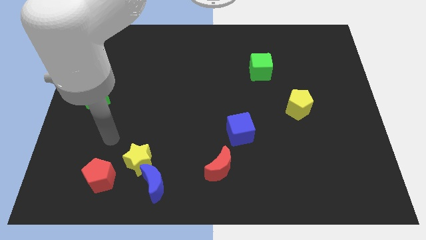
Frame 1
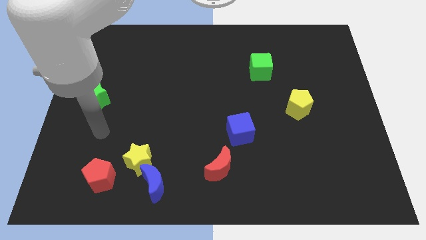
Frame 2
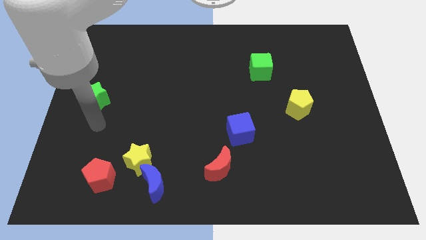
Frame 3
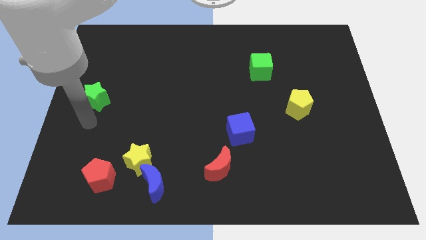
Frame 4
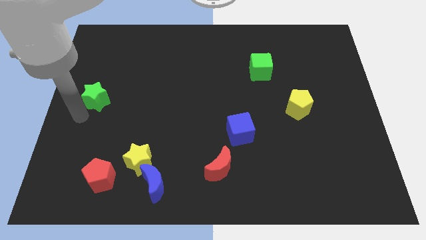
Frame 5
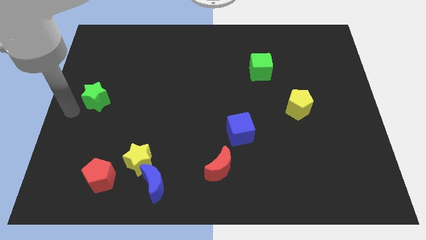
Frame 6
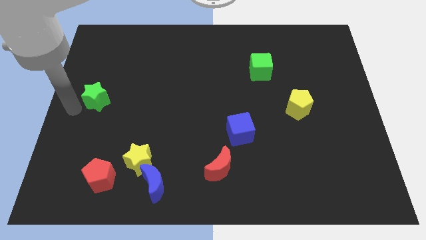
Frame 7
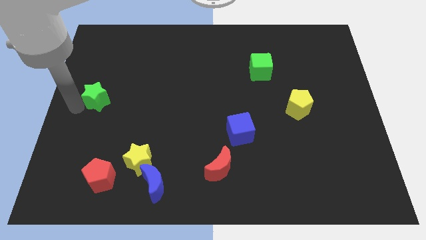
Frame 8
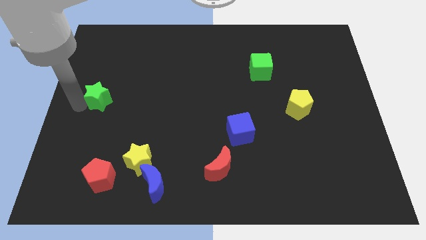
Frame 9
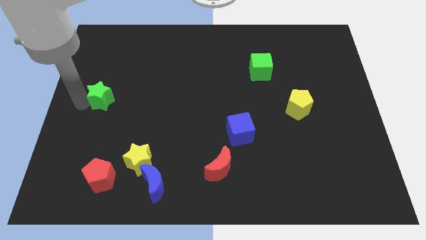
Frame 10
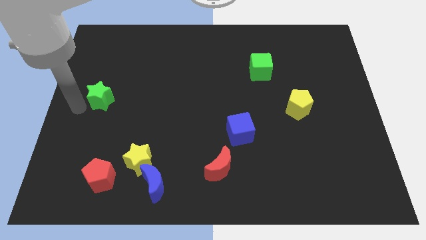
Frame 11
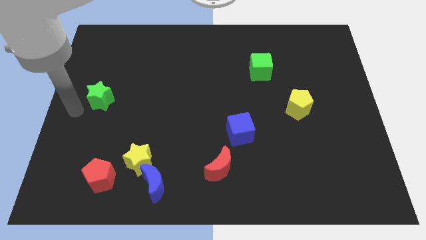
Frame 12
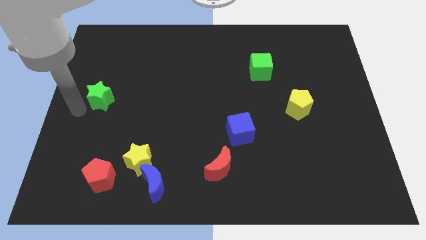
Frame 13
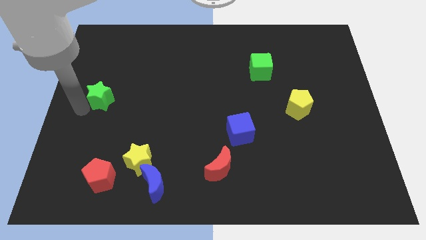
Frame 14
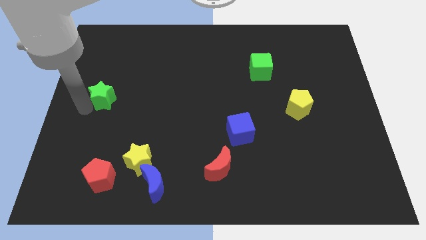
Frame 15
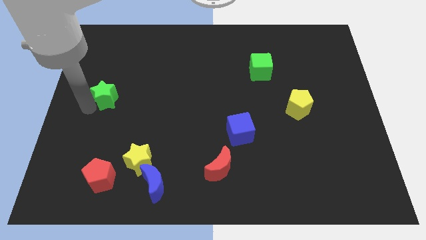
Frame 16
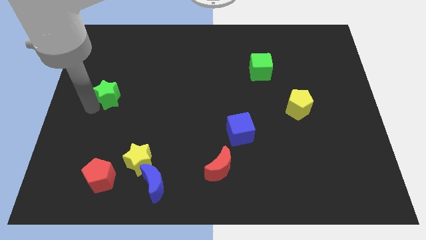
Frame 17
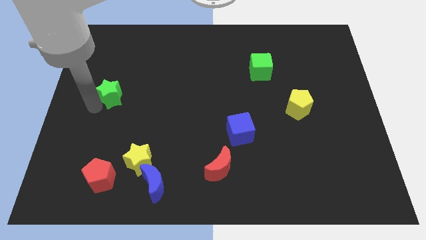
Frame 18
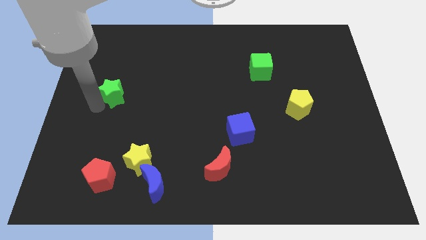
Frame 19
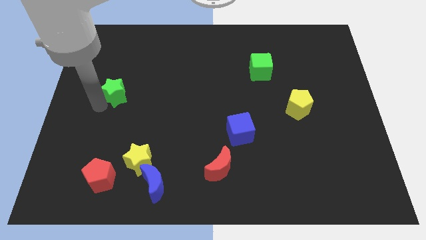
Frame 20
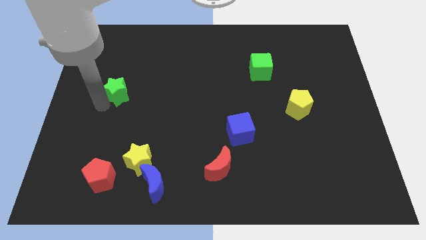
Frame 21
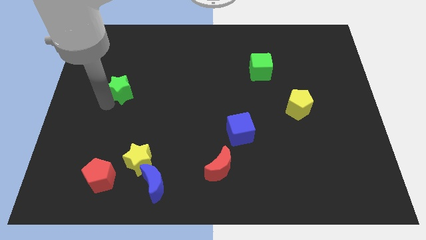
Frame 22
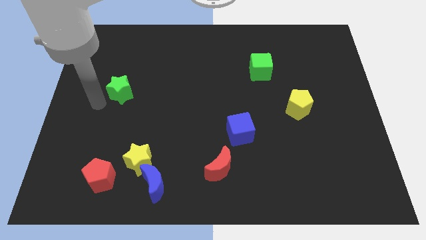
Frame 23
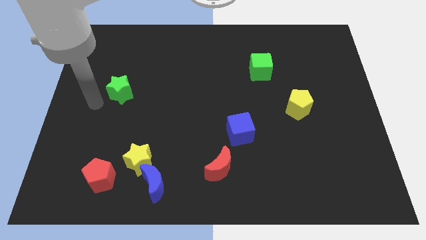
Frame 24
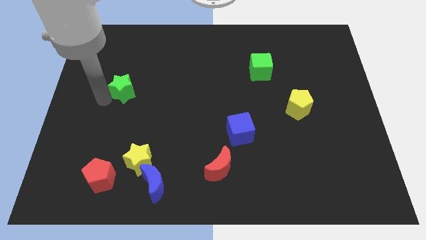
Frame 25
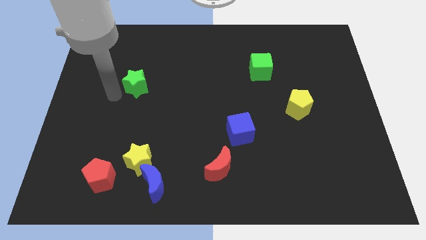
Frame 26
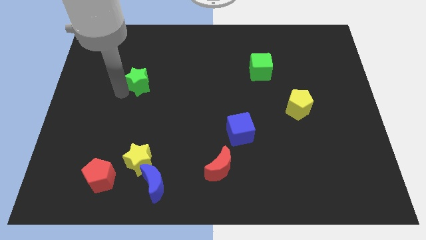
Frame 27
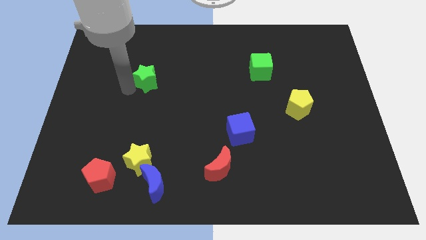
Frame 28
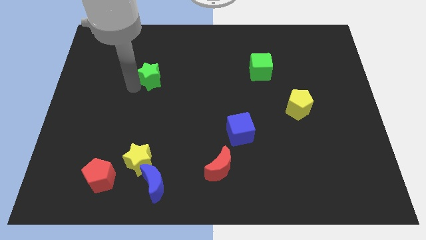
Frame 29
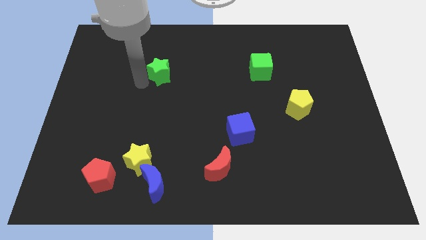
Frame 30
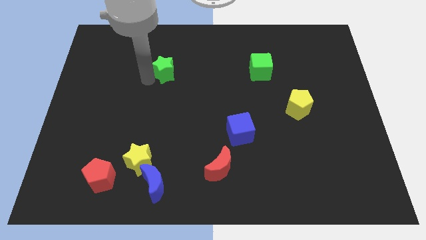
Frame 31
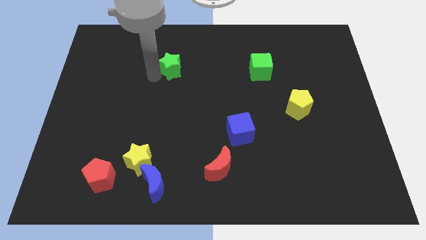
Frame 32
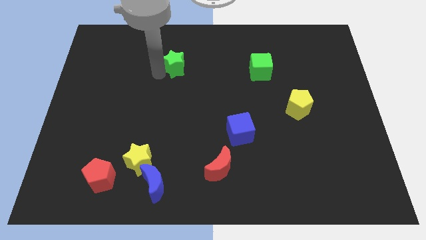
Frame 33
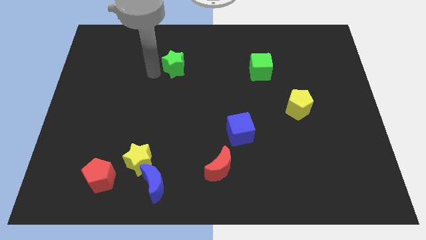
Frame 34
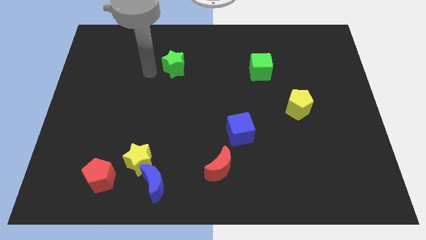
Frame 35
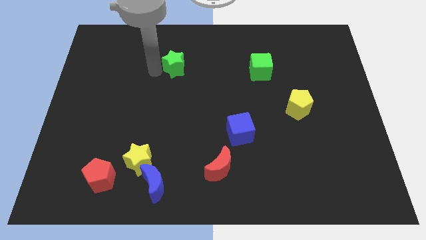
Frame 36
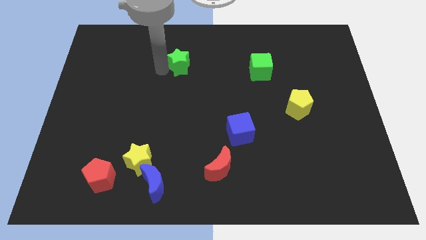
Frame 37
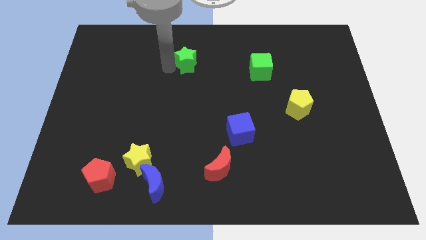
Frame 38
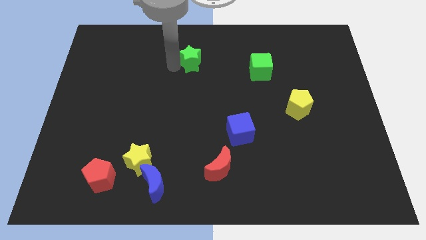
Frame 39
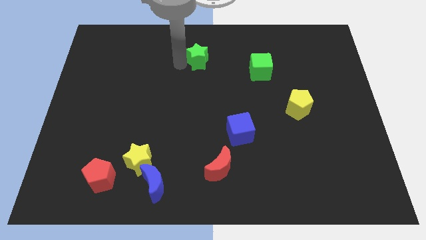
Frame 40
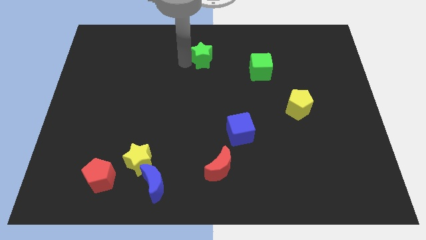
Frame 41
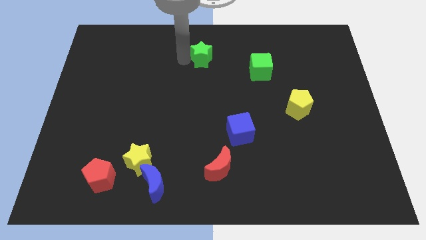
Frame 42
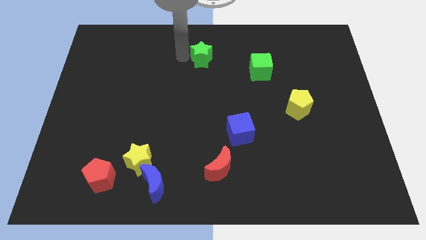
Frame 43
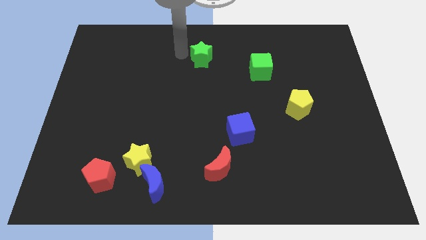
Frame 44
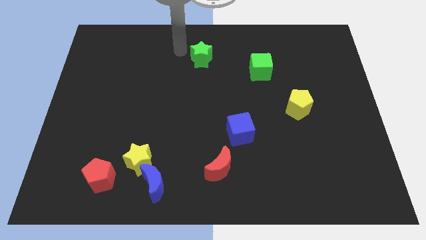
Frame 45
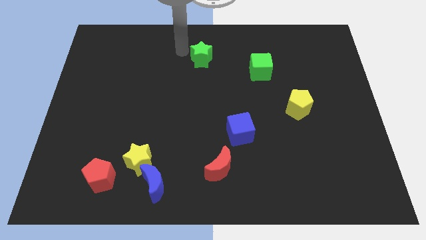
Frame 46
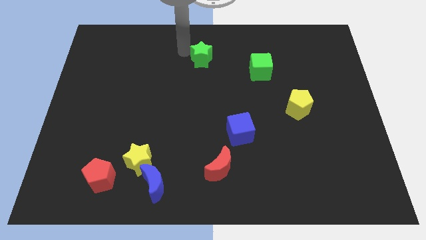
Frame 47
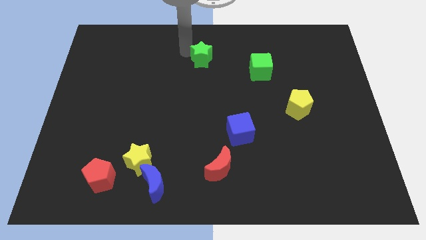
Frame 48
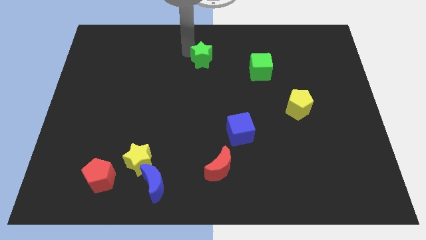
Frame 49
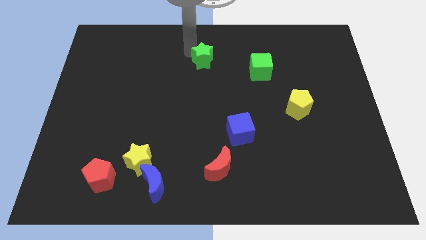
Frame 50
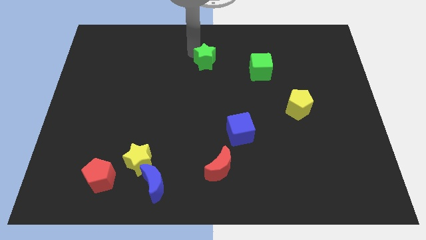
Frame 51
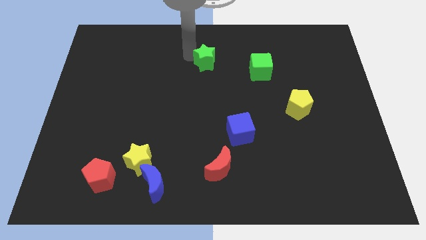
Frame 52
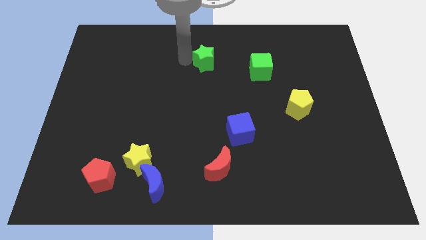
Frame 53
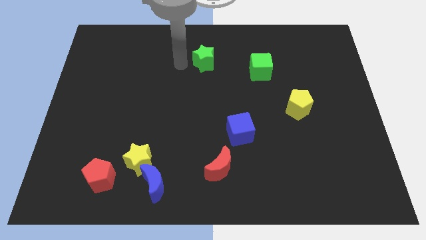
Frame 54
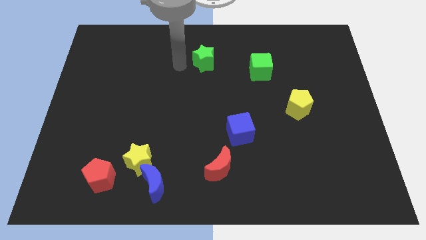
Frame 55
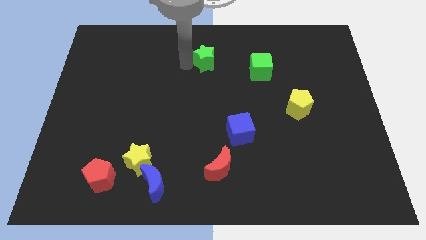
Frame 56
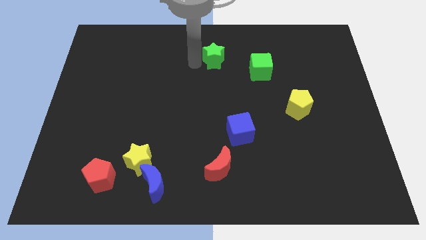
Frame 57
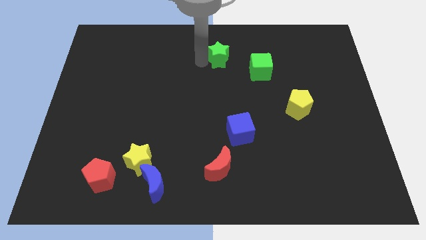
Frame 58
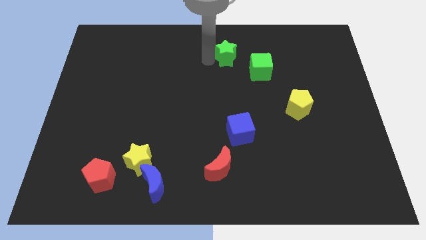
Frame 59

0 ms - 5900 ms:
put the green star diagonally up and to the left of the green cube

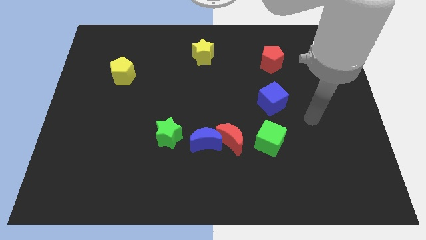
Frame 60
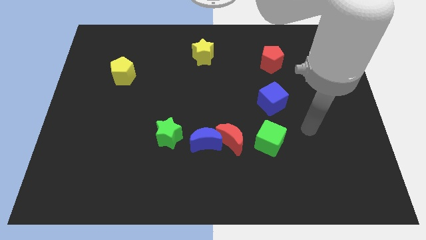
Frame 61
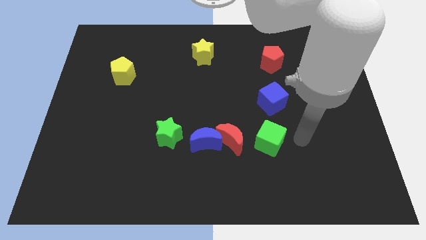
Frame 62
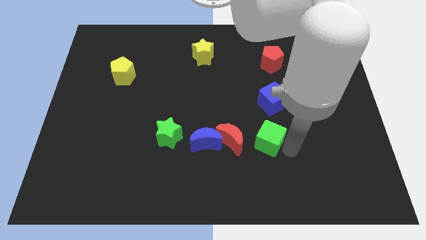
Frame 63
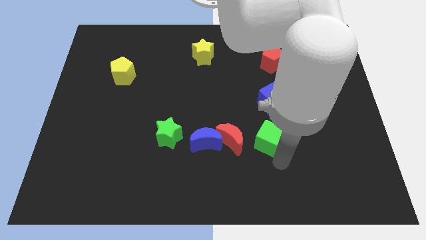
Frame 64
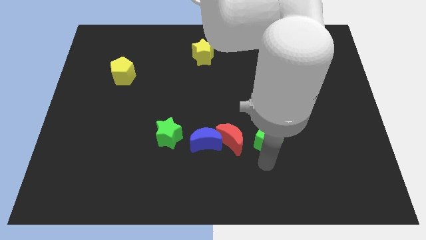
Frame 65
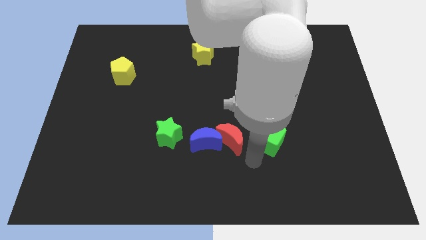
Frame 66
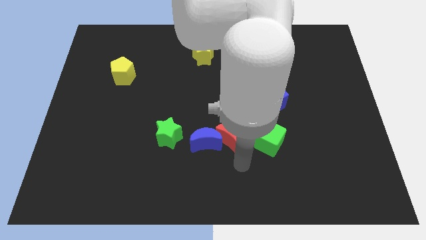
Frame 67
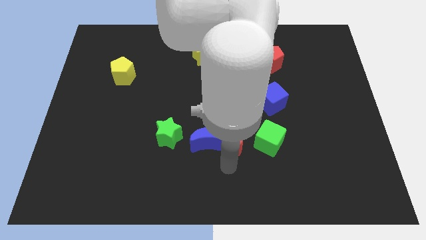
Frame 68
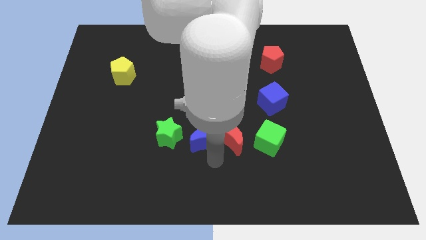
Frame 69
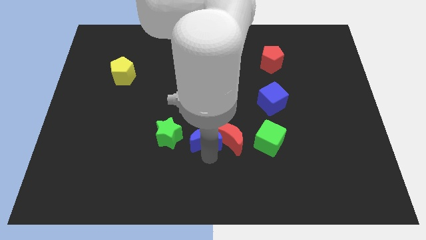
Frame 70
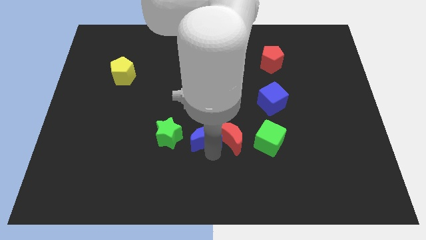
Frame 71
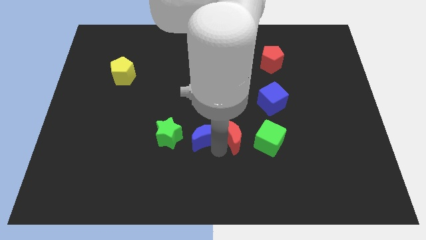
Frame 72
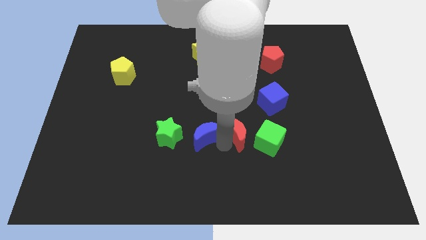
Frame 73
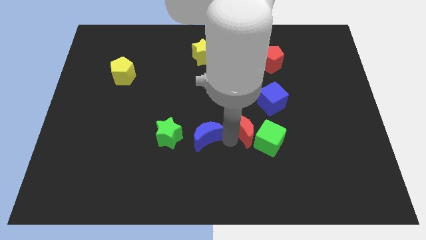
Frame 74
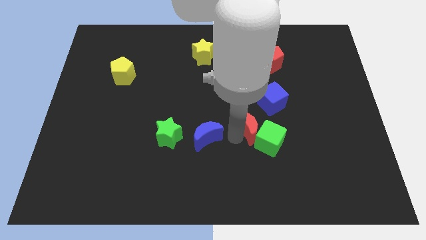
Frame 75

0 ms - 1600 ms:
slide the red moon above the green cube
